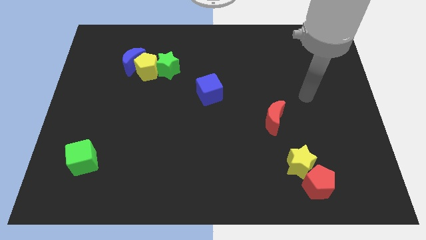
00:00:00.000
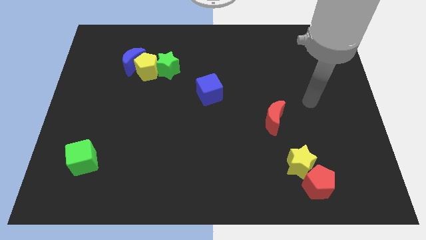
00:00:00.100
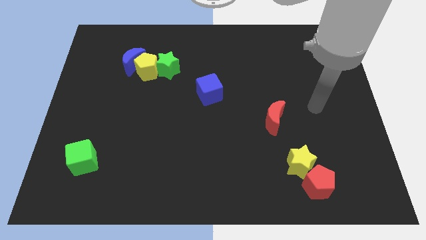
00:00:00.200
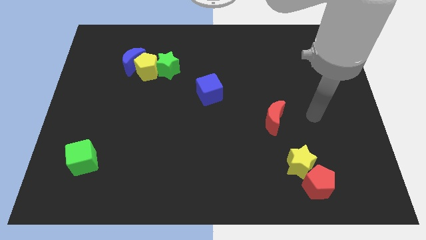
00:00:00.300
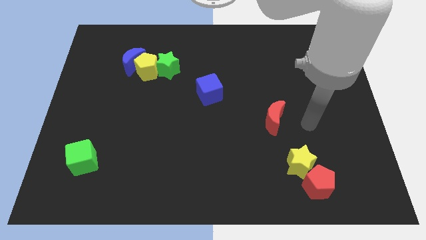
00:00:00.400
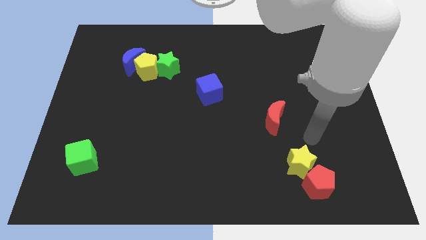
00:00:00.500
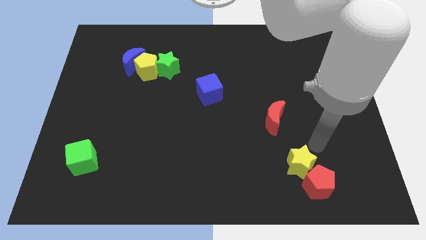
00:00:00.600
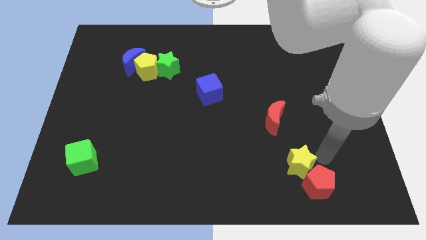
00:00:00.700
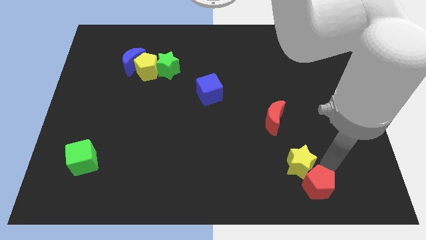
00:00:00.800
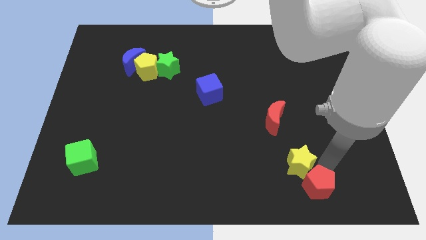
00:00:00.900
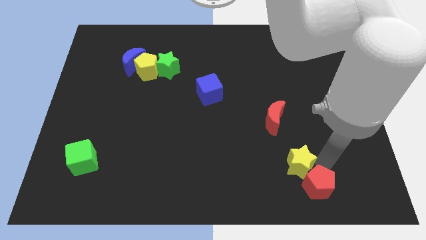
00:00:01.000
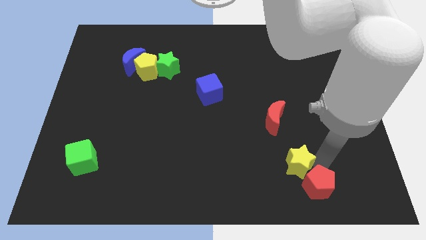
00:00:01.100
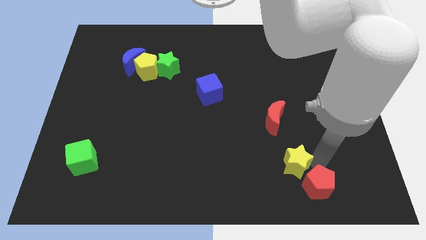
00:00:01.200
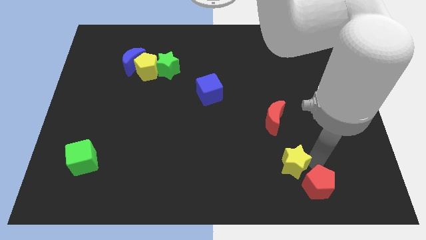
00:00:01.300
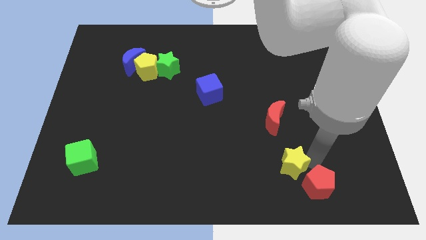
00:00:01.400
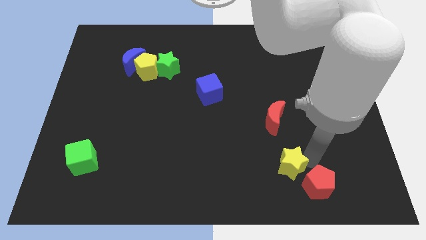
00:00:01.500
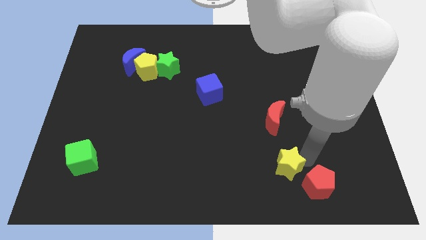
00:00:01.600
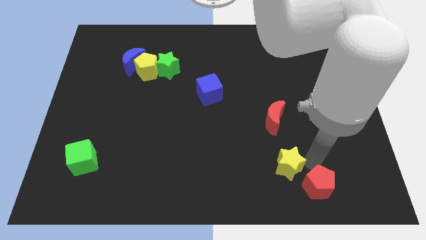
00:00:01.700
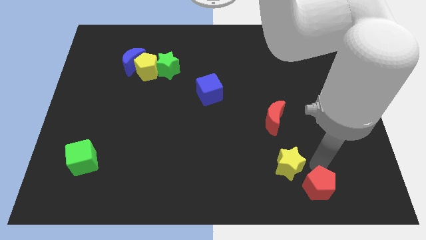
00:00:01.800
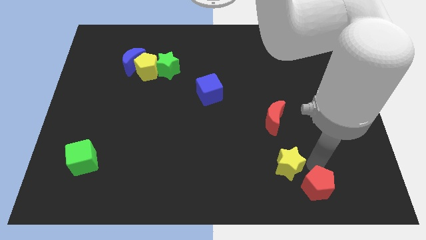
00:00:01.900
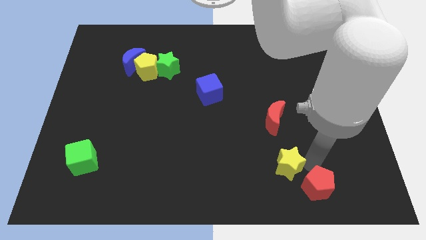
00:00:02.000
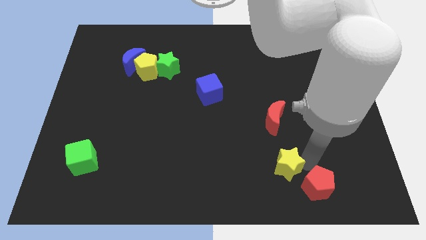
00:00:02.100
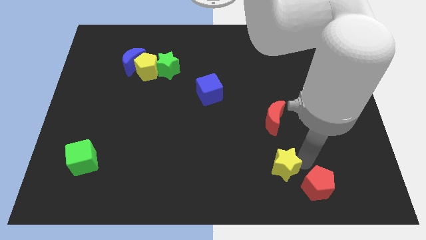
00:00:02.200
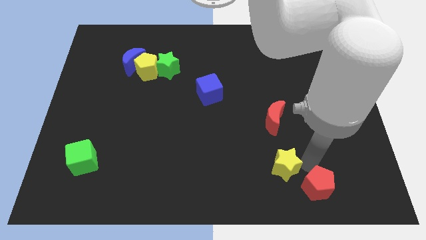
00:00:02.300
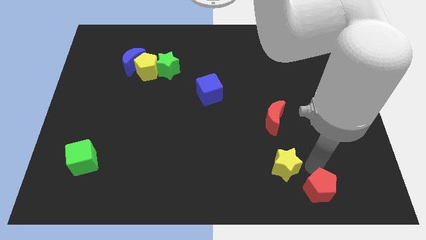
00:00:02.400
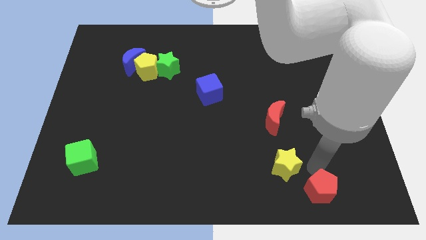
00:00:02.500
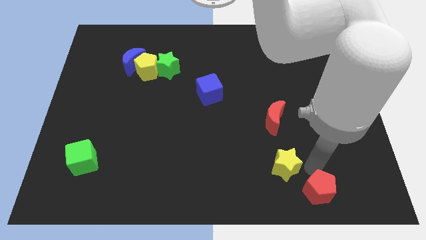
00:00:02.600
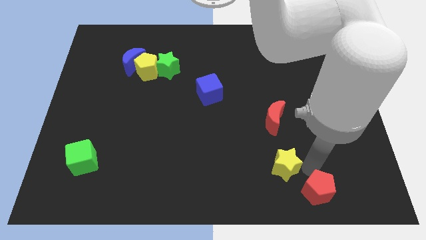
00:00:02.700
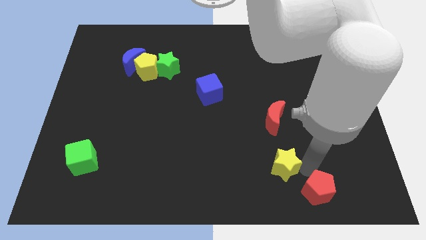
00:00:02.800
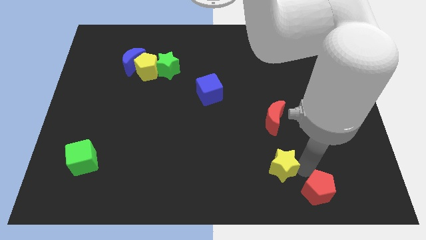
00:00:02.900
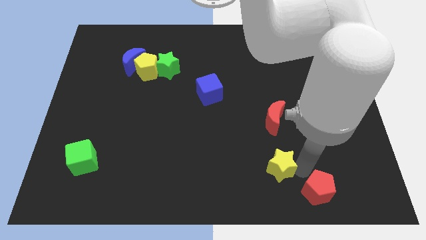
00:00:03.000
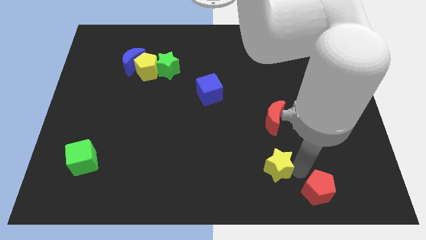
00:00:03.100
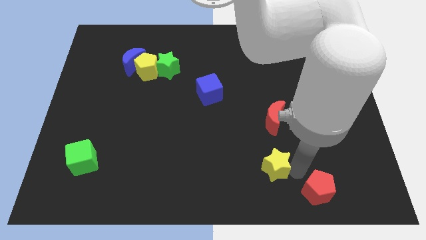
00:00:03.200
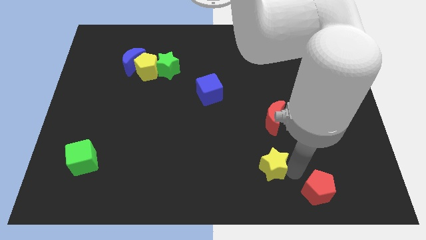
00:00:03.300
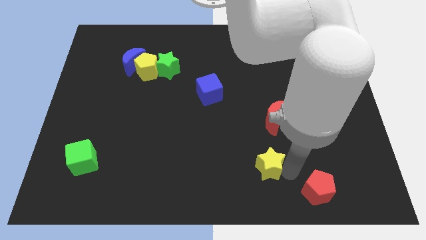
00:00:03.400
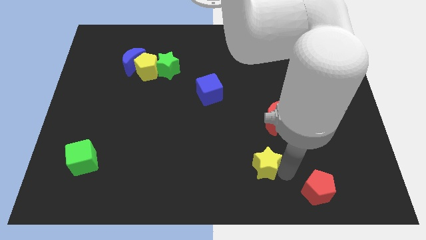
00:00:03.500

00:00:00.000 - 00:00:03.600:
push the yellow star to the left slightly

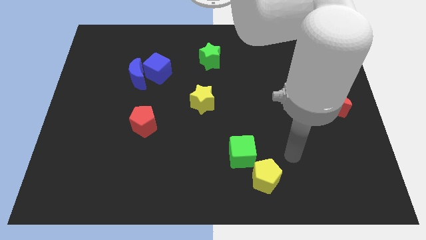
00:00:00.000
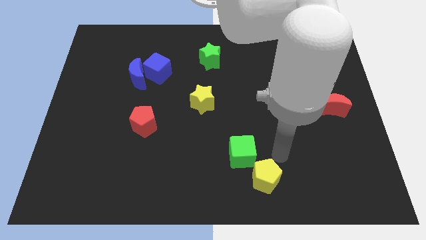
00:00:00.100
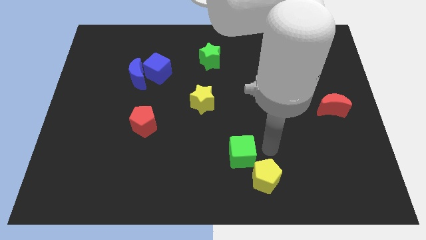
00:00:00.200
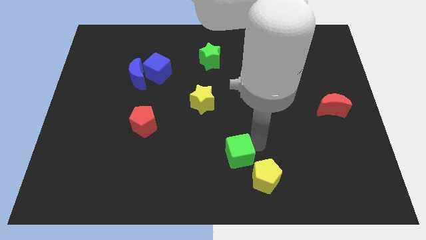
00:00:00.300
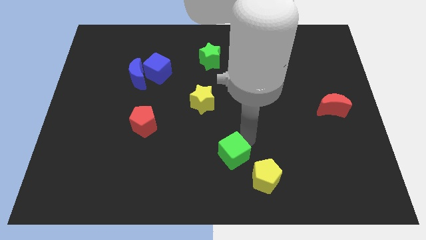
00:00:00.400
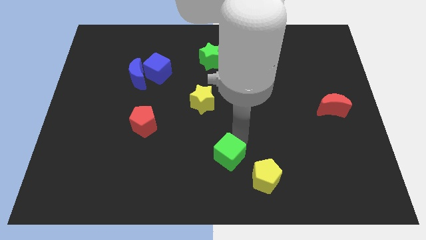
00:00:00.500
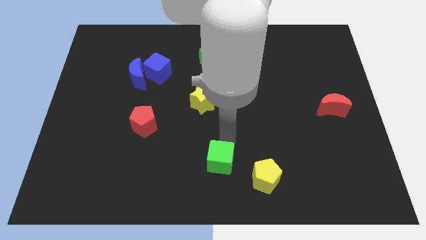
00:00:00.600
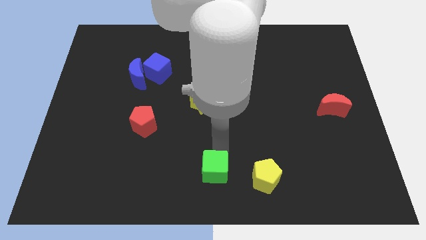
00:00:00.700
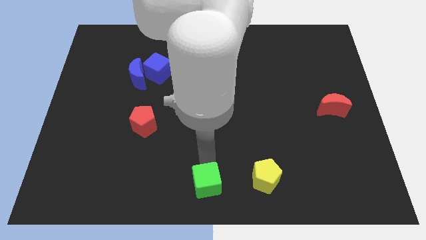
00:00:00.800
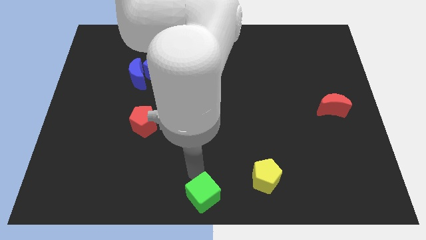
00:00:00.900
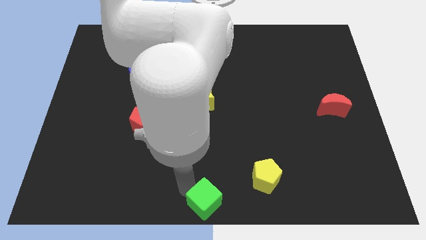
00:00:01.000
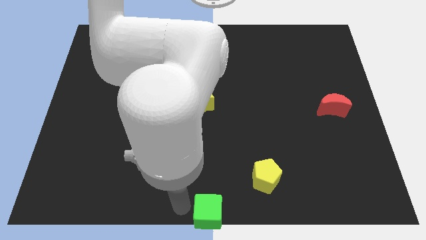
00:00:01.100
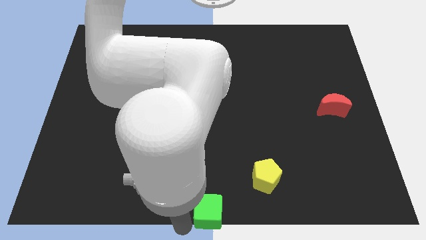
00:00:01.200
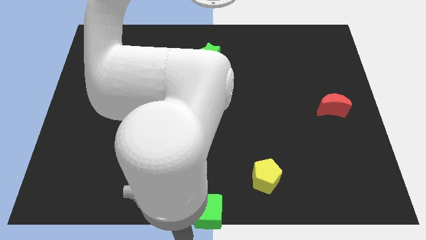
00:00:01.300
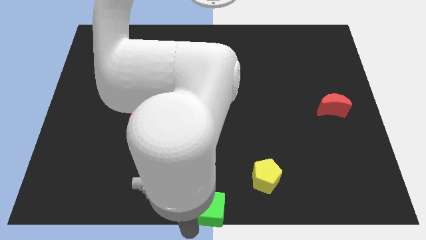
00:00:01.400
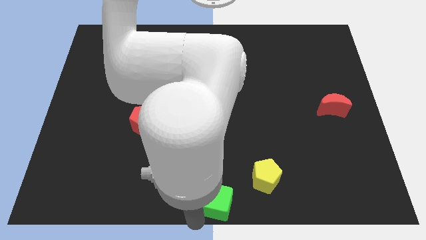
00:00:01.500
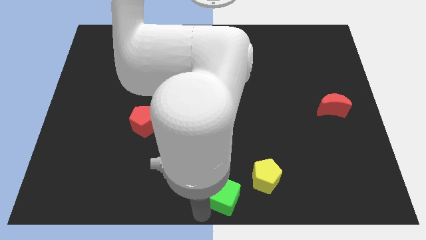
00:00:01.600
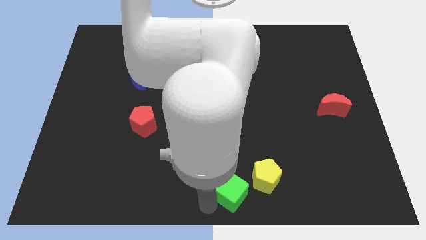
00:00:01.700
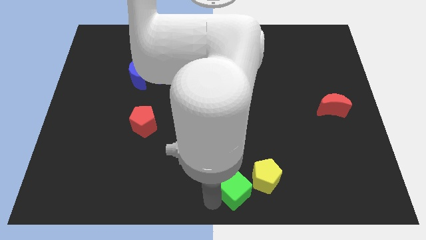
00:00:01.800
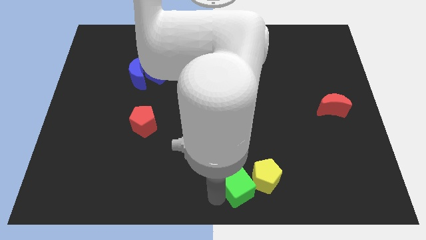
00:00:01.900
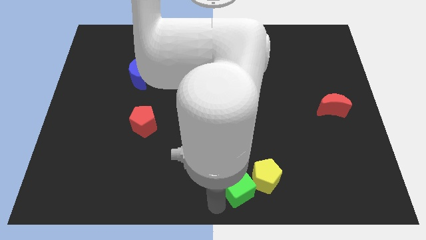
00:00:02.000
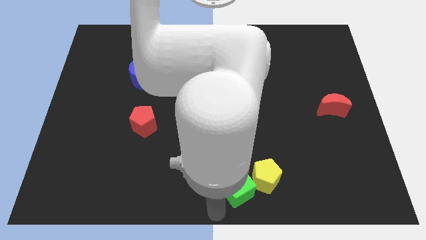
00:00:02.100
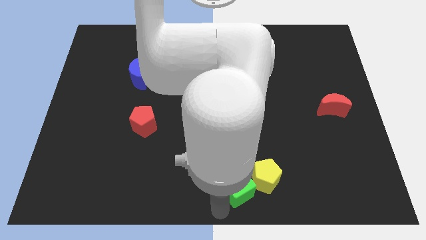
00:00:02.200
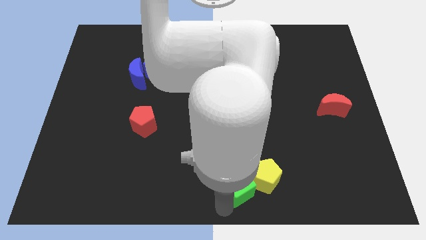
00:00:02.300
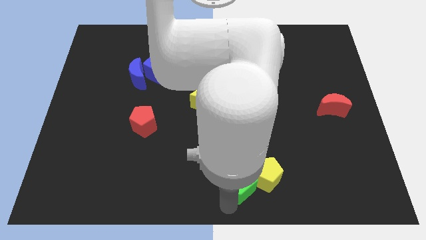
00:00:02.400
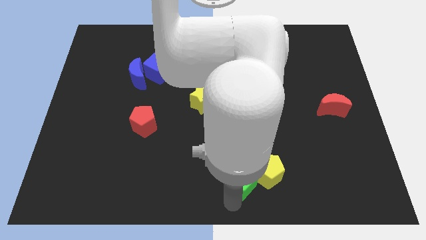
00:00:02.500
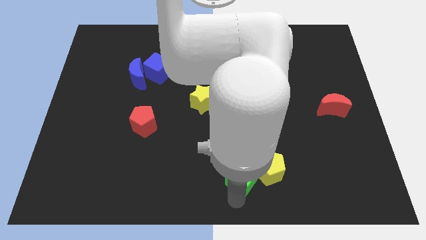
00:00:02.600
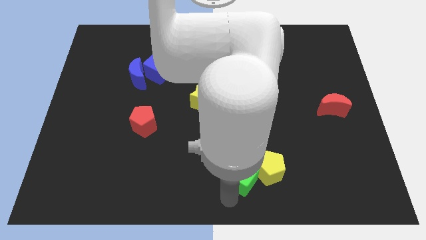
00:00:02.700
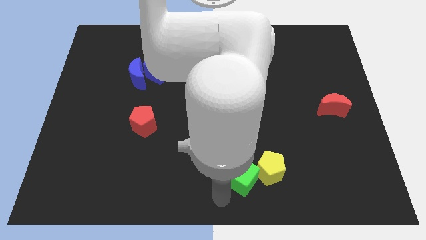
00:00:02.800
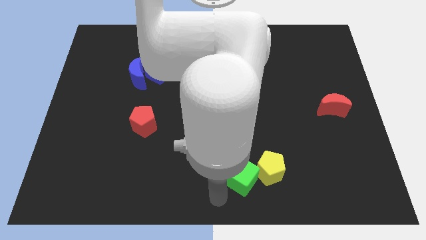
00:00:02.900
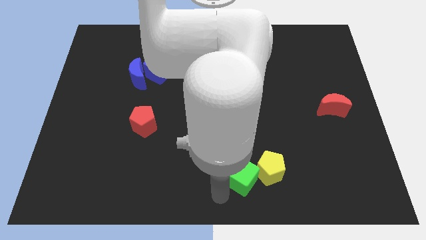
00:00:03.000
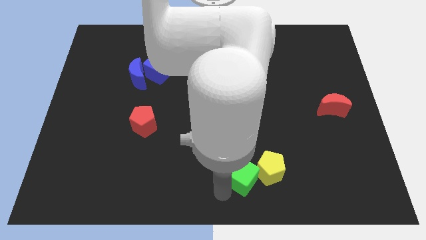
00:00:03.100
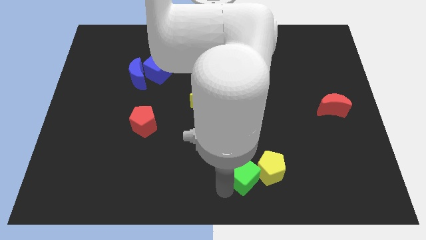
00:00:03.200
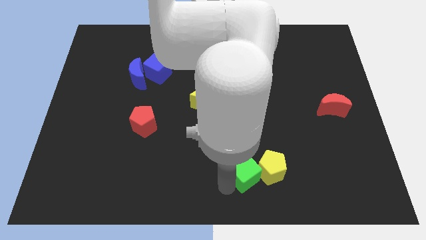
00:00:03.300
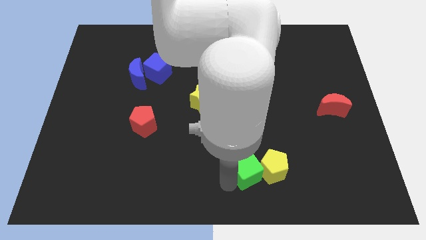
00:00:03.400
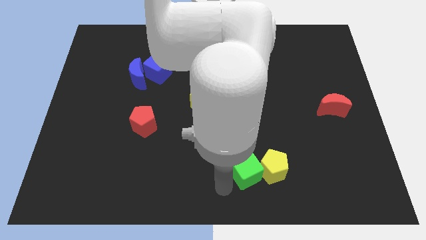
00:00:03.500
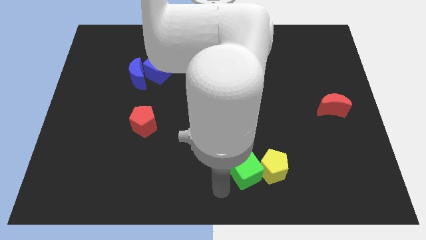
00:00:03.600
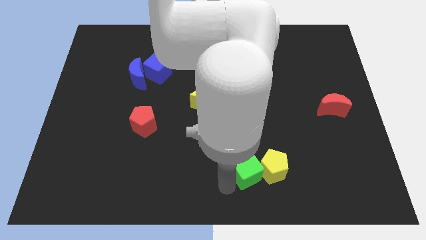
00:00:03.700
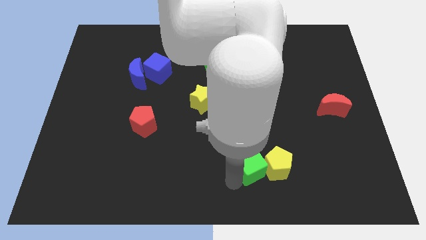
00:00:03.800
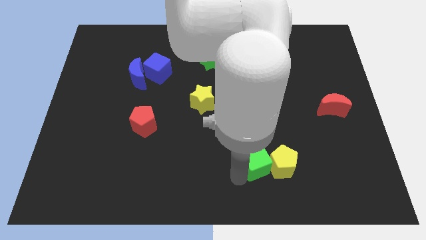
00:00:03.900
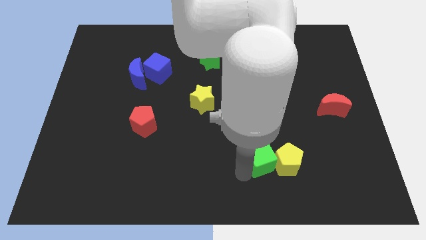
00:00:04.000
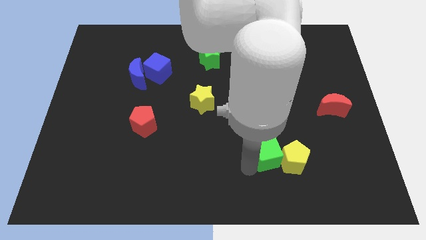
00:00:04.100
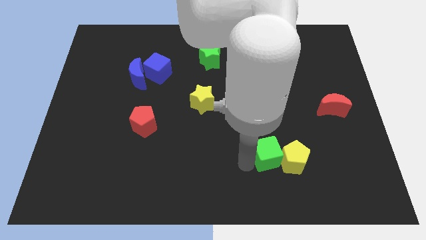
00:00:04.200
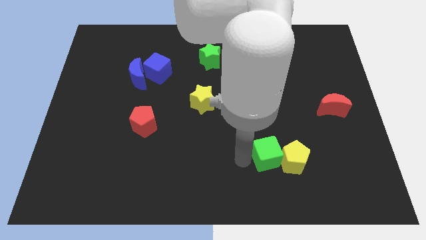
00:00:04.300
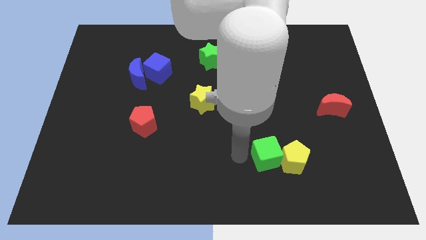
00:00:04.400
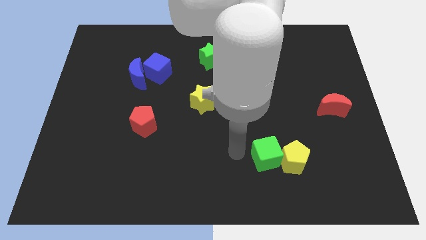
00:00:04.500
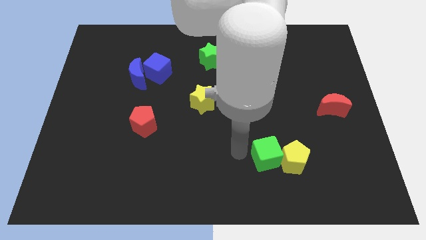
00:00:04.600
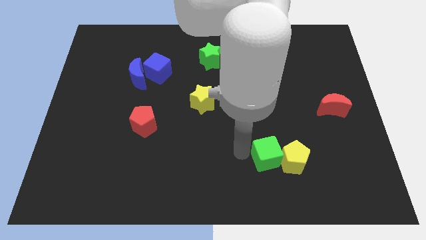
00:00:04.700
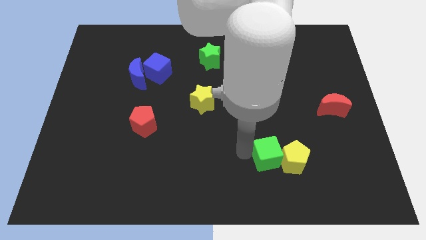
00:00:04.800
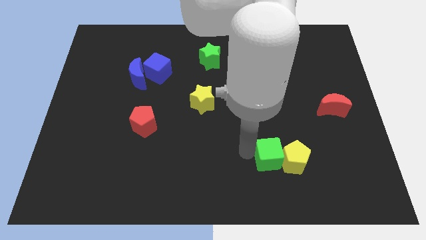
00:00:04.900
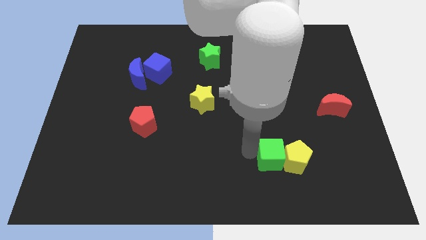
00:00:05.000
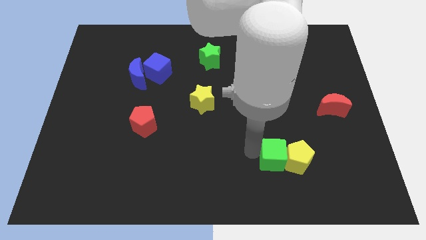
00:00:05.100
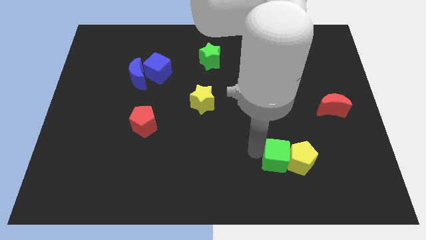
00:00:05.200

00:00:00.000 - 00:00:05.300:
slightly move the green cube right
